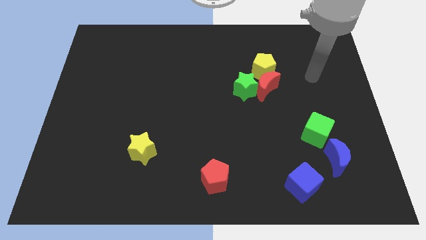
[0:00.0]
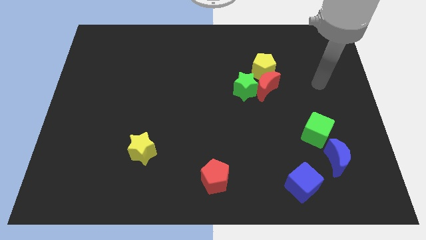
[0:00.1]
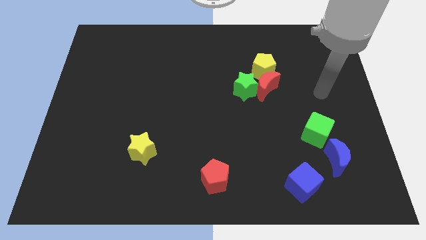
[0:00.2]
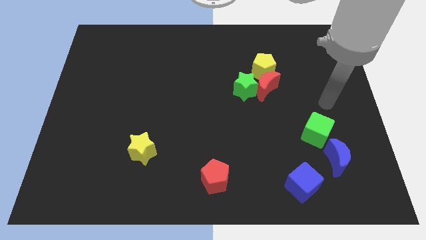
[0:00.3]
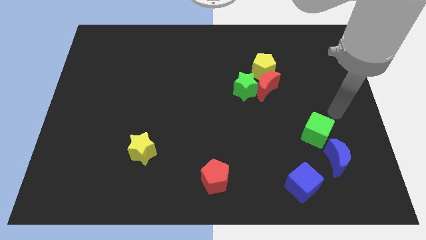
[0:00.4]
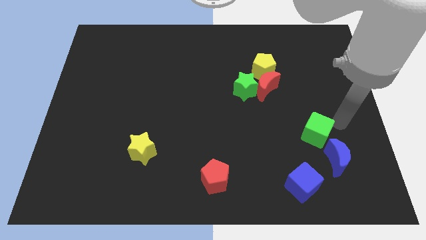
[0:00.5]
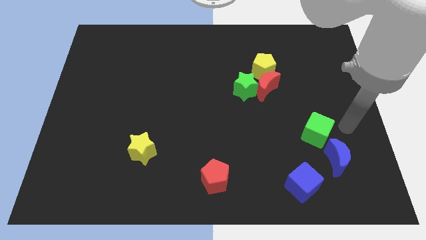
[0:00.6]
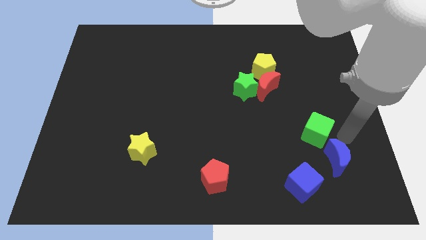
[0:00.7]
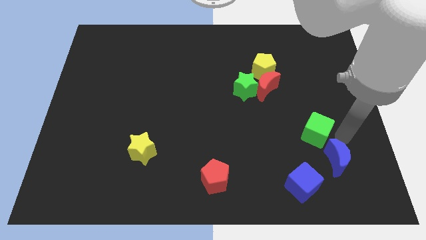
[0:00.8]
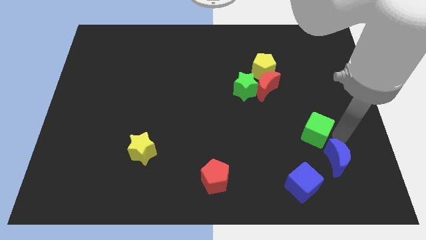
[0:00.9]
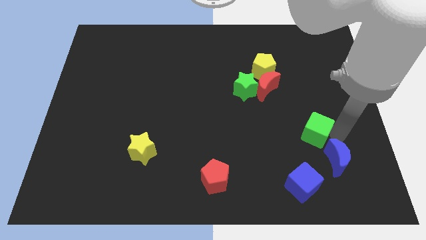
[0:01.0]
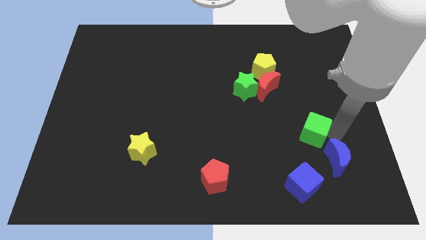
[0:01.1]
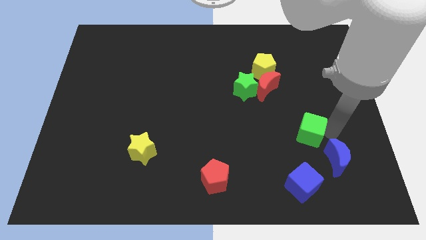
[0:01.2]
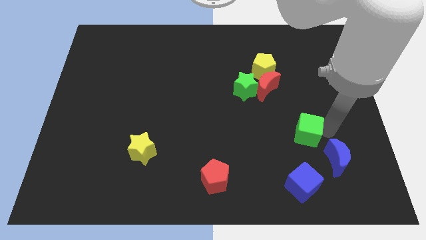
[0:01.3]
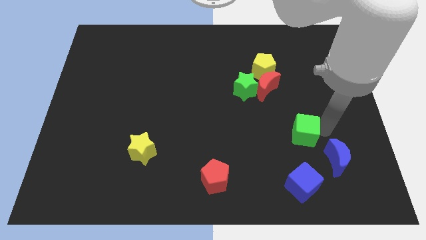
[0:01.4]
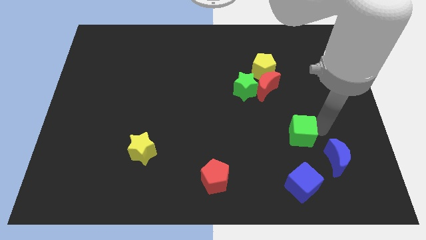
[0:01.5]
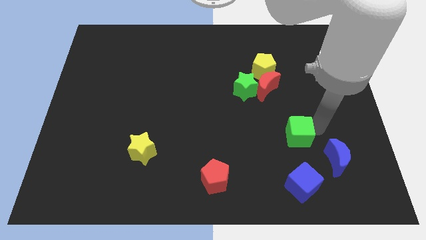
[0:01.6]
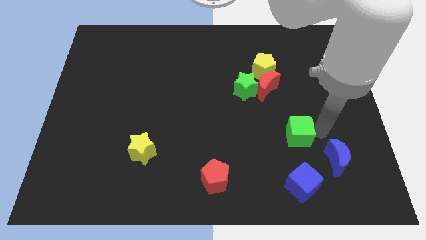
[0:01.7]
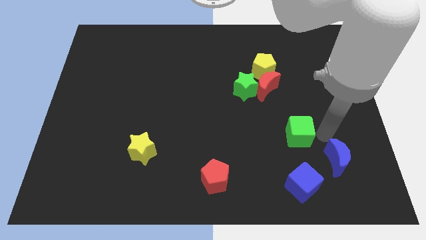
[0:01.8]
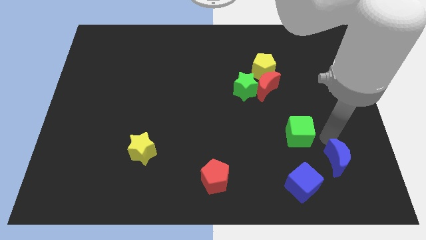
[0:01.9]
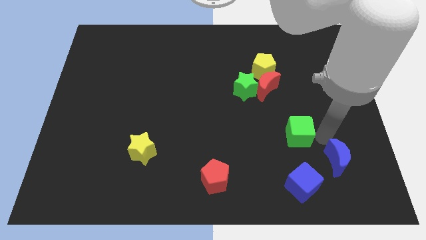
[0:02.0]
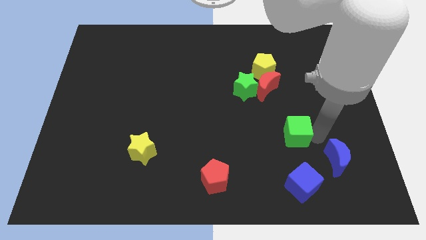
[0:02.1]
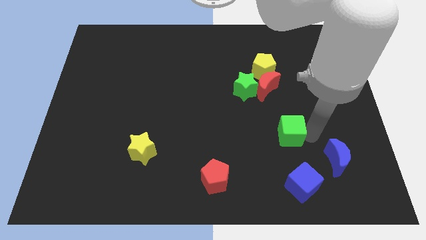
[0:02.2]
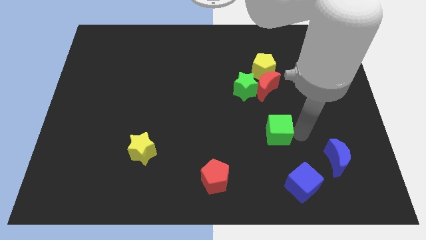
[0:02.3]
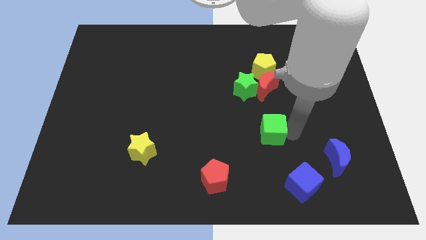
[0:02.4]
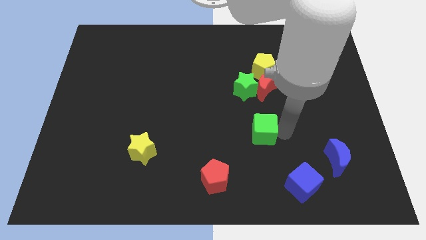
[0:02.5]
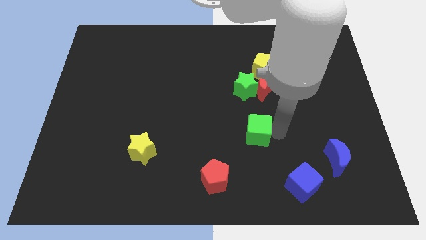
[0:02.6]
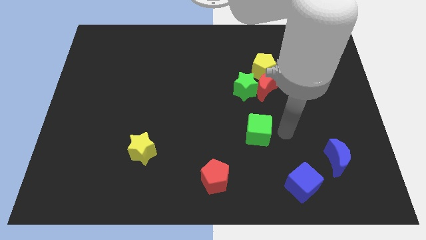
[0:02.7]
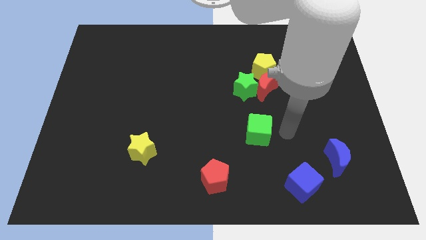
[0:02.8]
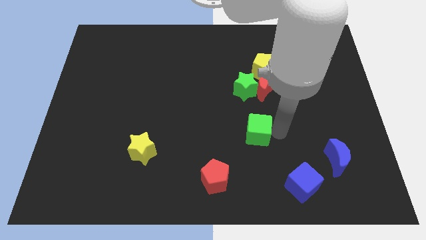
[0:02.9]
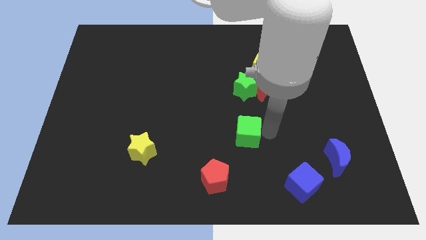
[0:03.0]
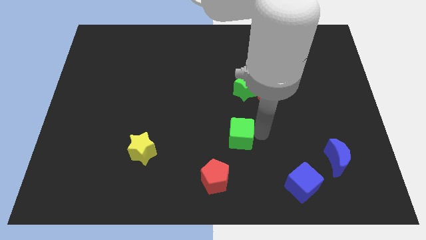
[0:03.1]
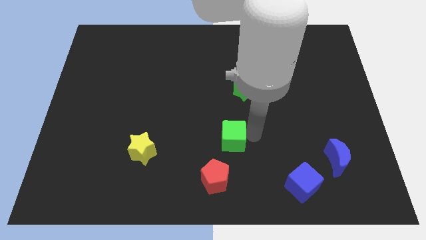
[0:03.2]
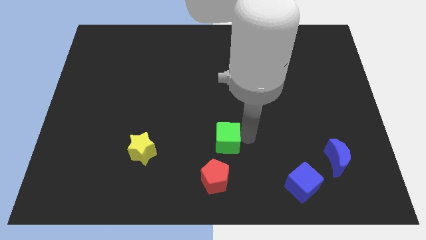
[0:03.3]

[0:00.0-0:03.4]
push the green cube to the left

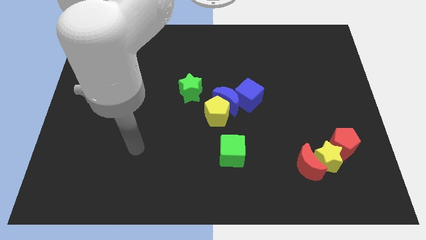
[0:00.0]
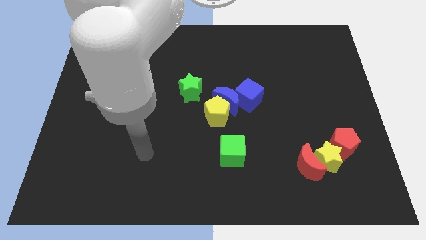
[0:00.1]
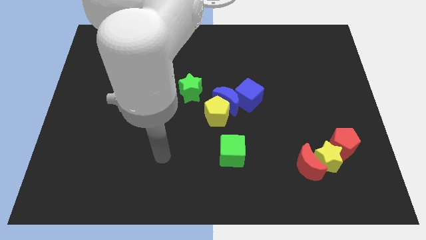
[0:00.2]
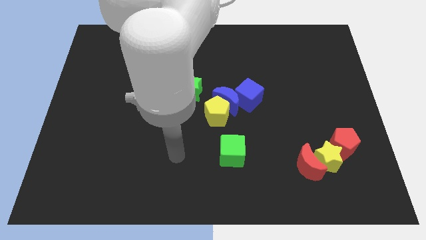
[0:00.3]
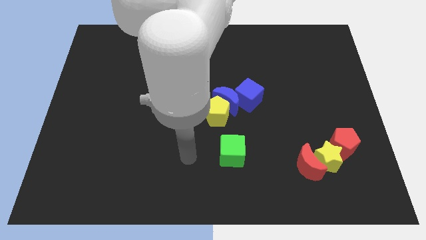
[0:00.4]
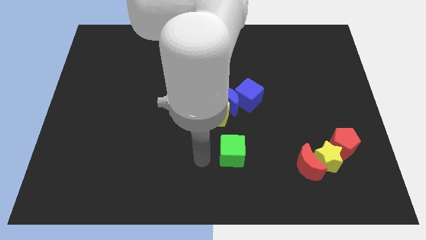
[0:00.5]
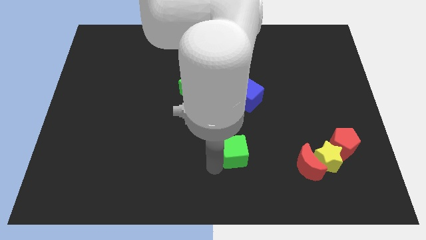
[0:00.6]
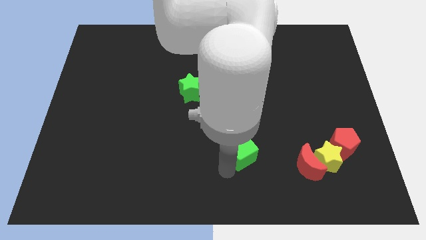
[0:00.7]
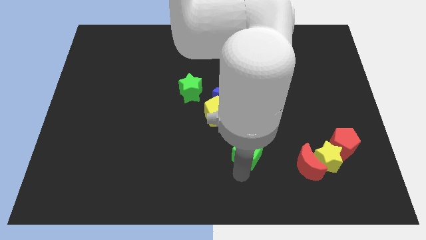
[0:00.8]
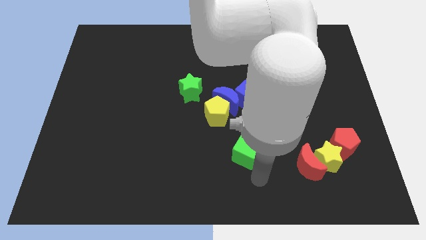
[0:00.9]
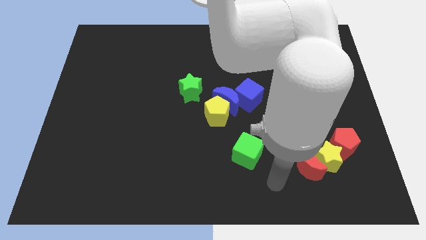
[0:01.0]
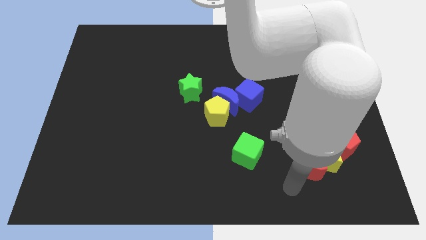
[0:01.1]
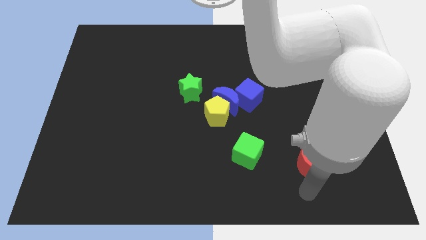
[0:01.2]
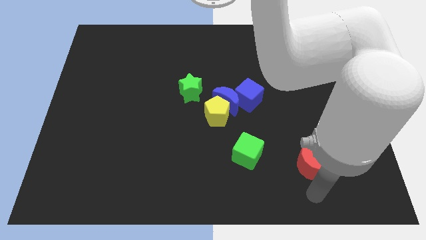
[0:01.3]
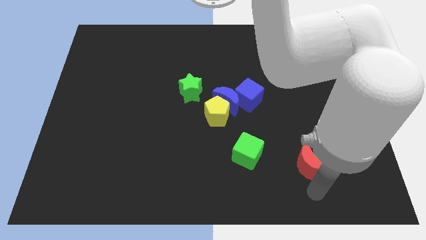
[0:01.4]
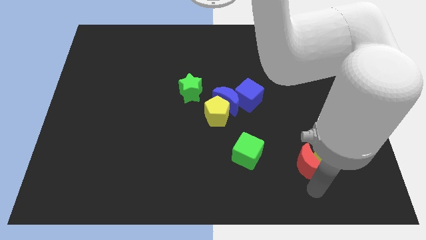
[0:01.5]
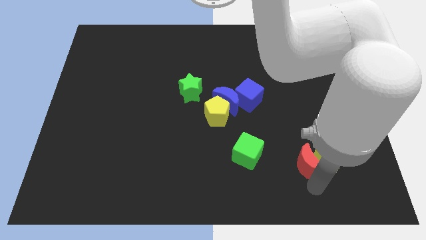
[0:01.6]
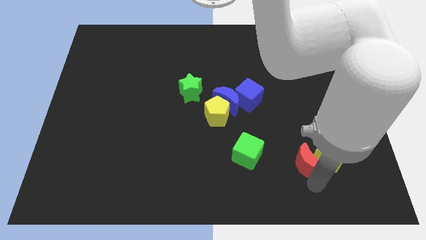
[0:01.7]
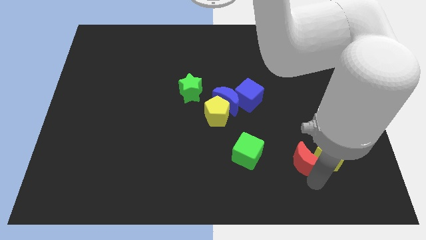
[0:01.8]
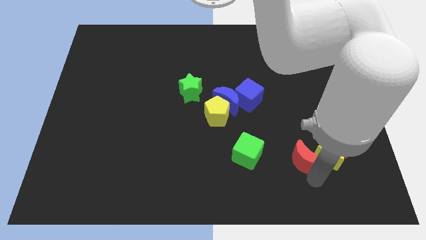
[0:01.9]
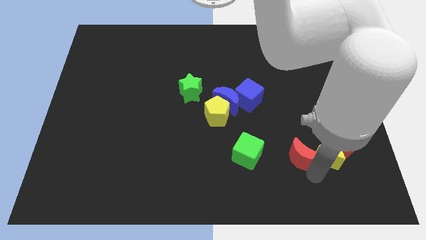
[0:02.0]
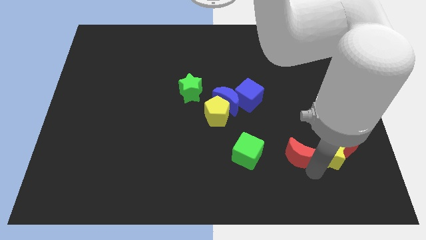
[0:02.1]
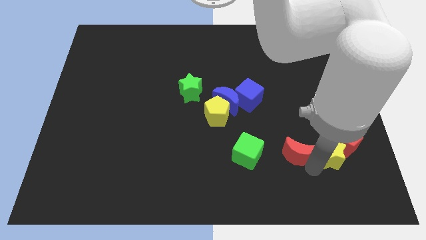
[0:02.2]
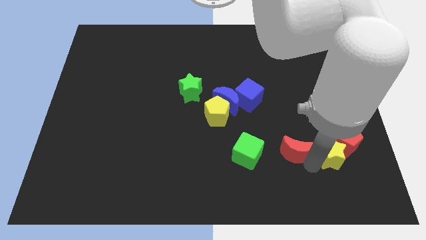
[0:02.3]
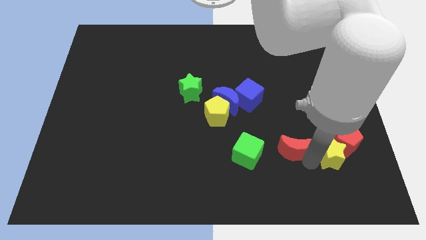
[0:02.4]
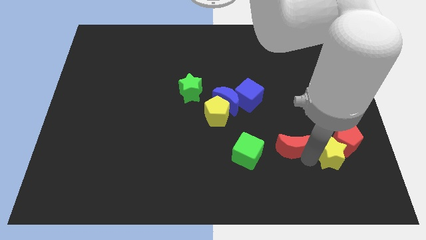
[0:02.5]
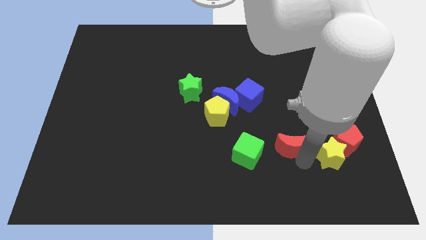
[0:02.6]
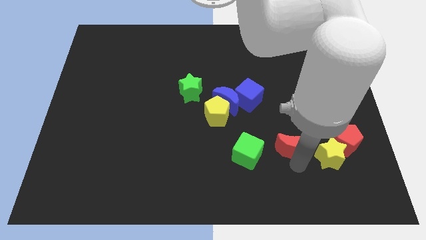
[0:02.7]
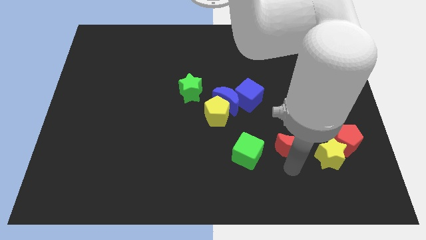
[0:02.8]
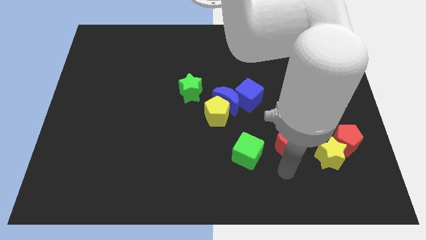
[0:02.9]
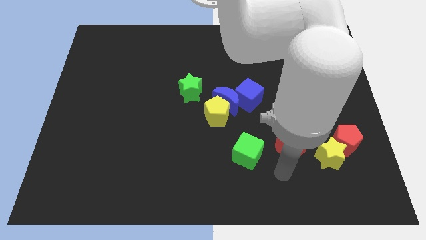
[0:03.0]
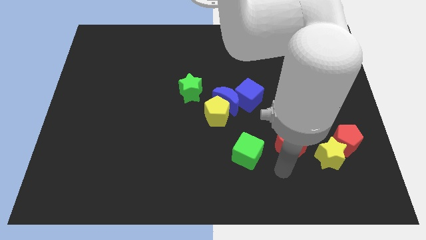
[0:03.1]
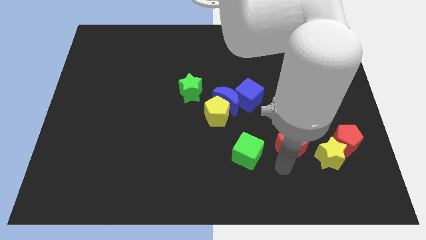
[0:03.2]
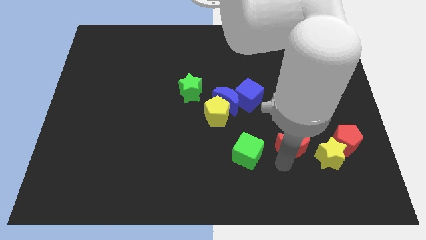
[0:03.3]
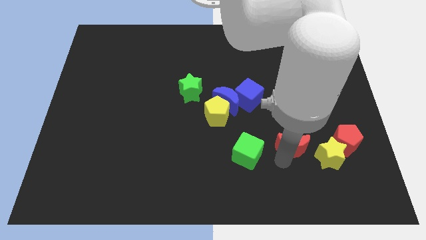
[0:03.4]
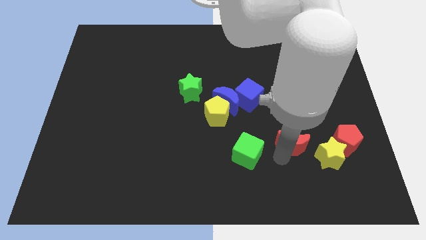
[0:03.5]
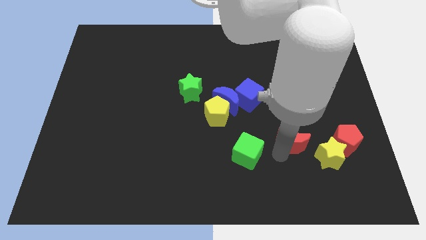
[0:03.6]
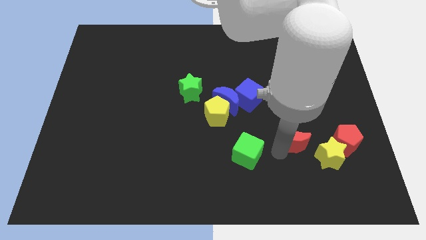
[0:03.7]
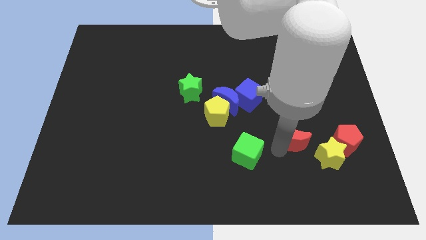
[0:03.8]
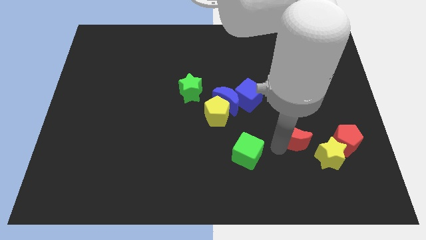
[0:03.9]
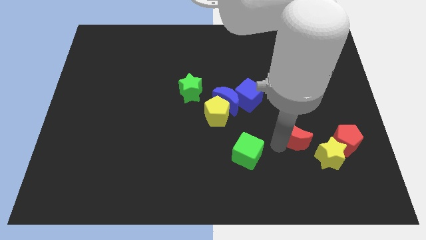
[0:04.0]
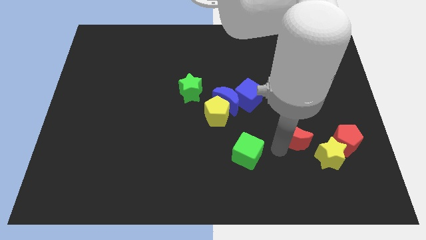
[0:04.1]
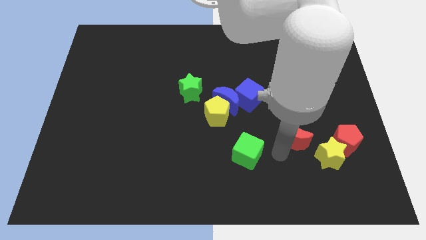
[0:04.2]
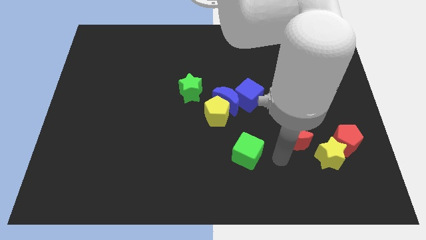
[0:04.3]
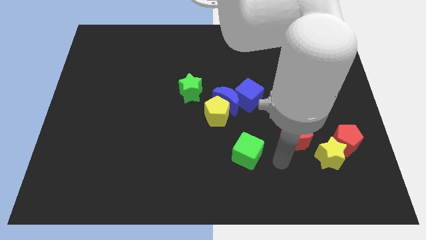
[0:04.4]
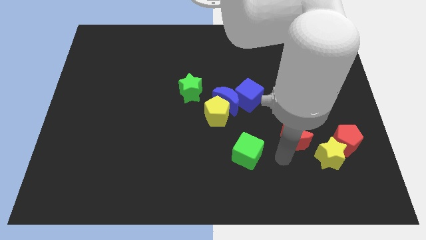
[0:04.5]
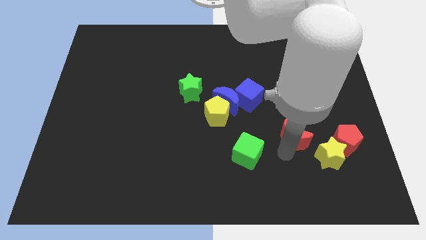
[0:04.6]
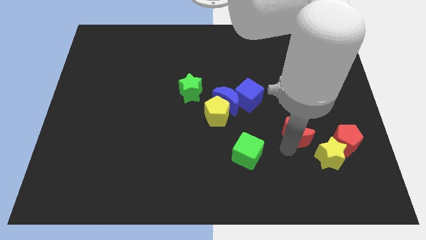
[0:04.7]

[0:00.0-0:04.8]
slide the red moon a little bit upwards
